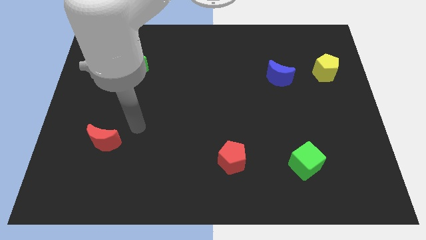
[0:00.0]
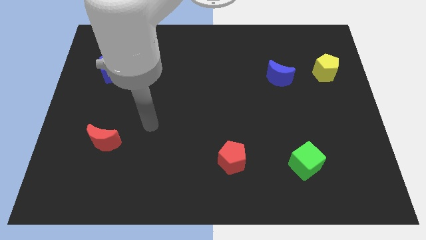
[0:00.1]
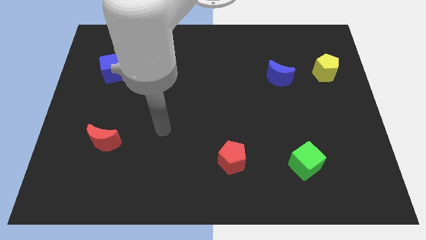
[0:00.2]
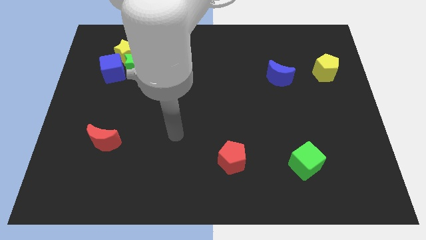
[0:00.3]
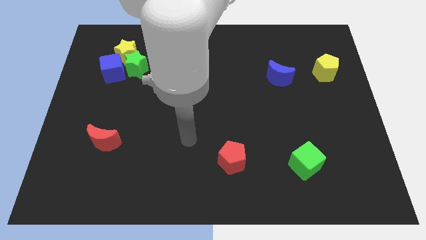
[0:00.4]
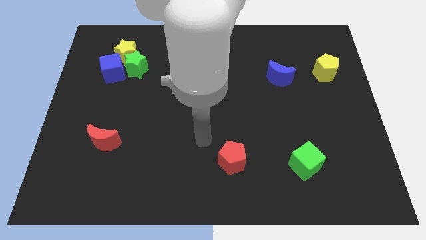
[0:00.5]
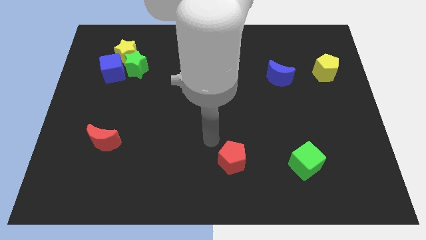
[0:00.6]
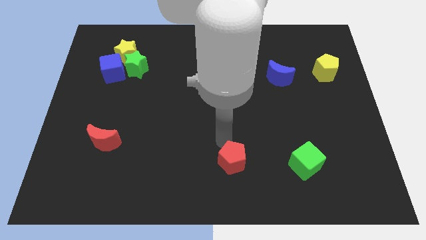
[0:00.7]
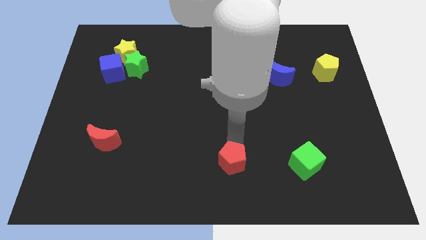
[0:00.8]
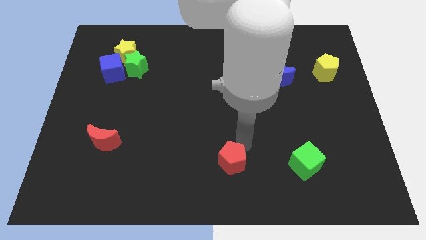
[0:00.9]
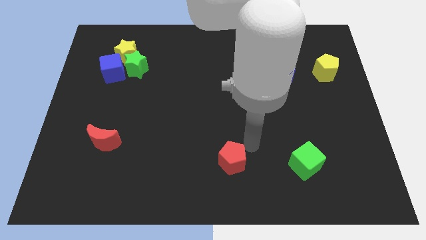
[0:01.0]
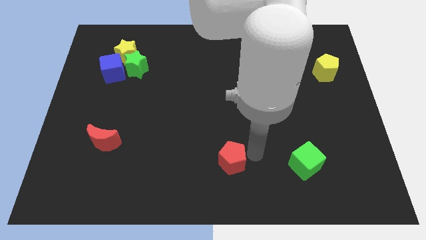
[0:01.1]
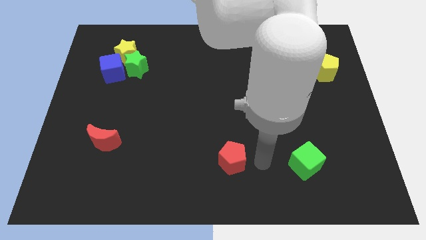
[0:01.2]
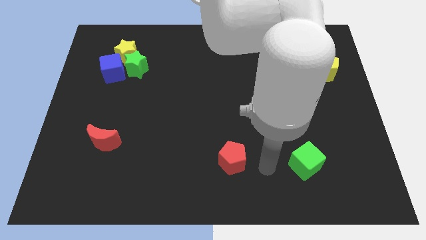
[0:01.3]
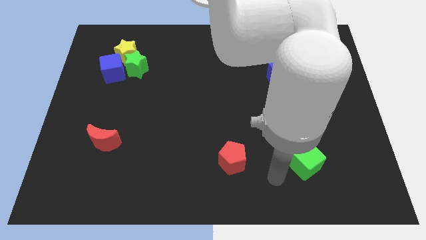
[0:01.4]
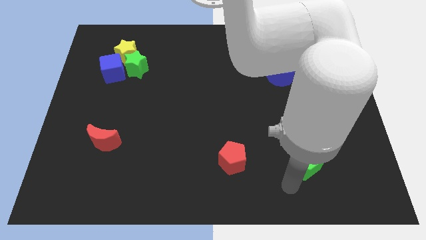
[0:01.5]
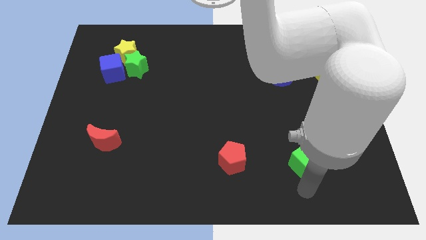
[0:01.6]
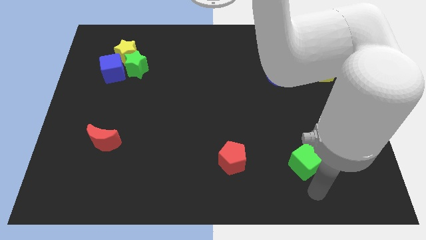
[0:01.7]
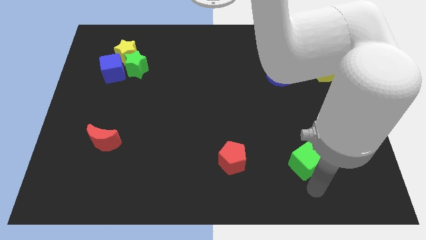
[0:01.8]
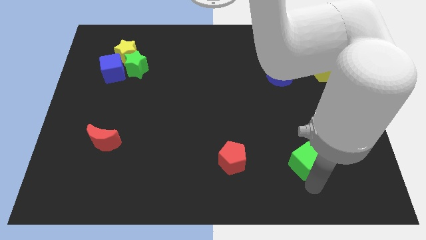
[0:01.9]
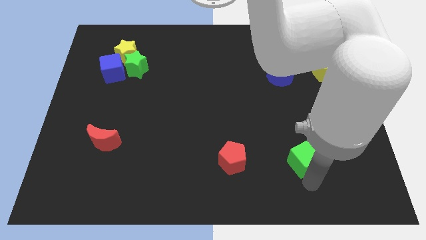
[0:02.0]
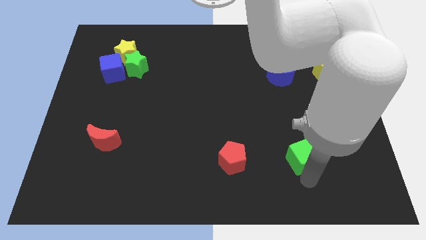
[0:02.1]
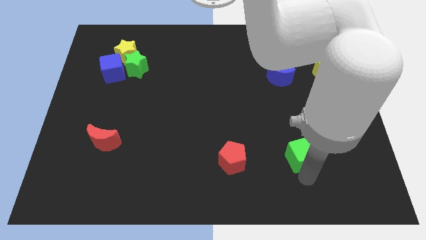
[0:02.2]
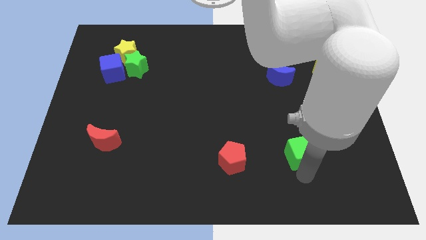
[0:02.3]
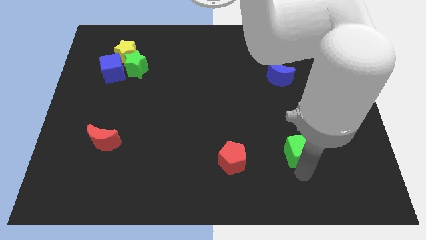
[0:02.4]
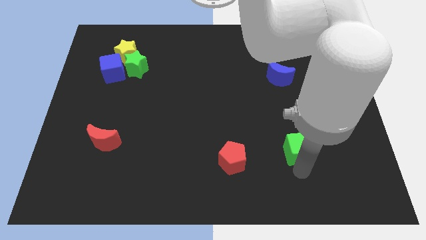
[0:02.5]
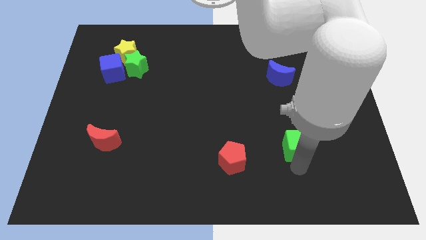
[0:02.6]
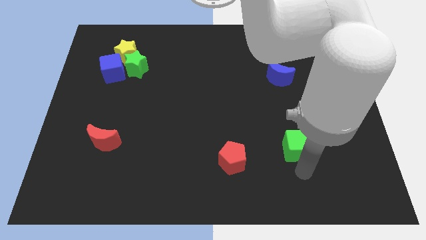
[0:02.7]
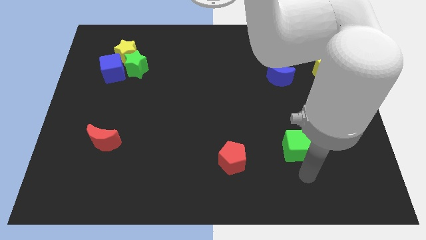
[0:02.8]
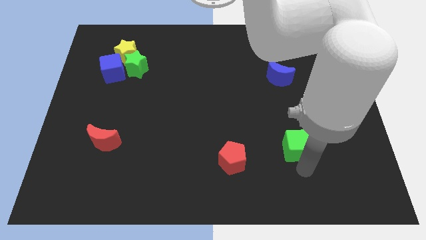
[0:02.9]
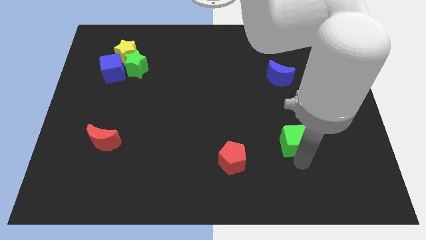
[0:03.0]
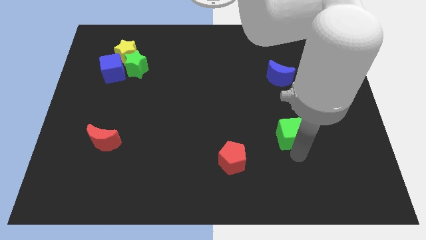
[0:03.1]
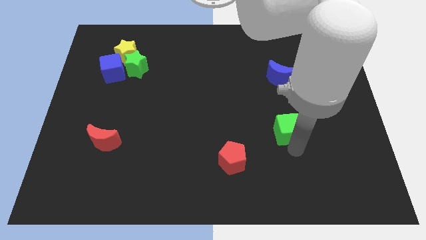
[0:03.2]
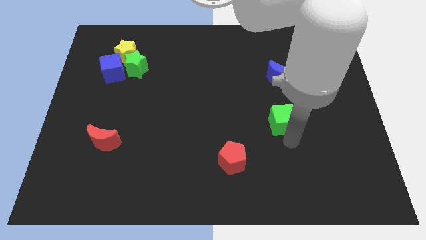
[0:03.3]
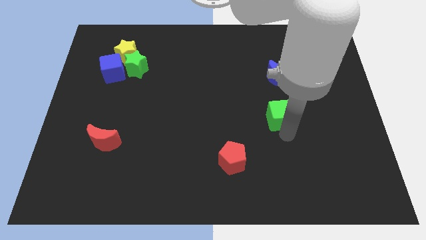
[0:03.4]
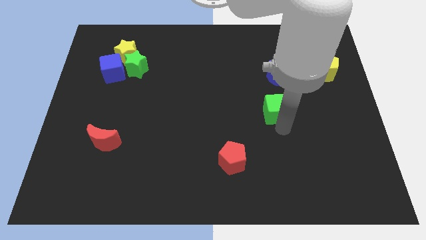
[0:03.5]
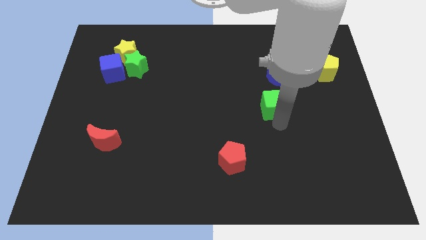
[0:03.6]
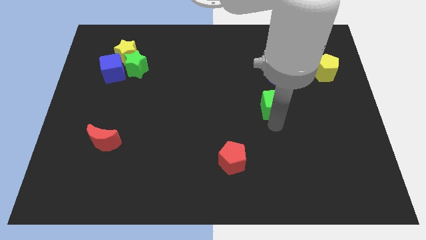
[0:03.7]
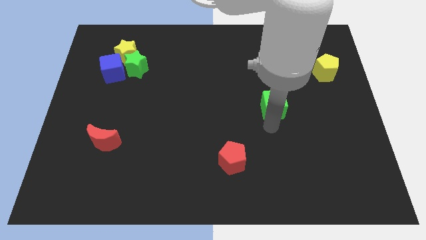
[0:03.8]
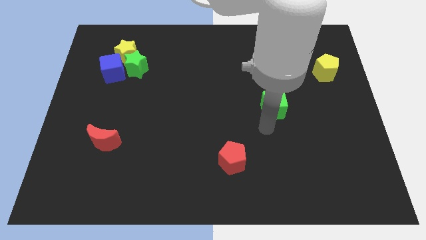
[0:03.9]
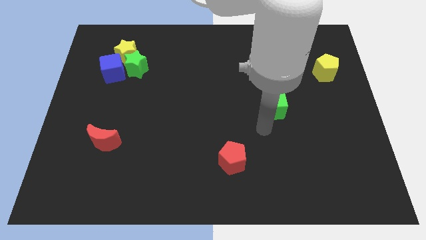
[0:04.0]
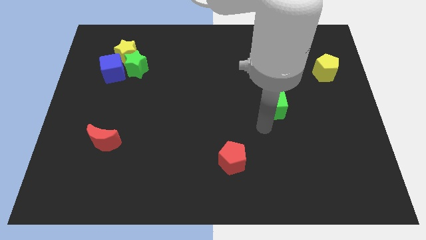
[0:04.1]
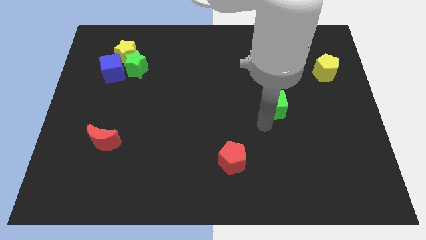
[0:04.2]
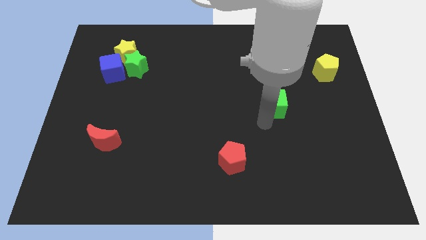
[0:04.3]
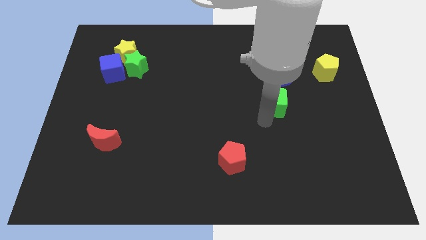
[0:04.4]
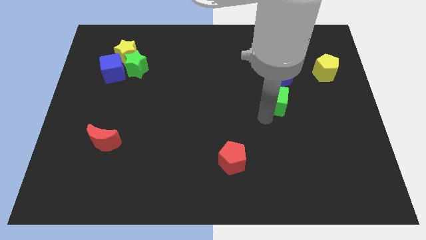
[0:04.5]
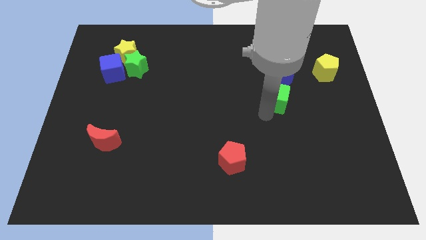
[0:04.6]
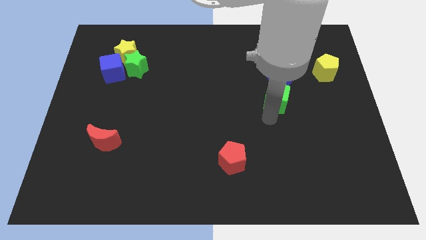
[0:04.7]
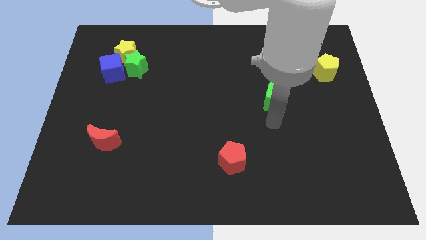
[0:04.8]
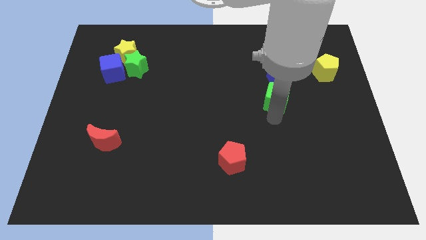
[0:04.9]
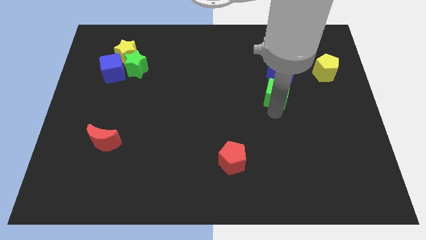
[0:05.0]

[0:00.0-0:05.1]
slide the green cube towards the blue moon

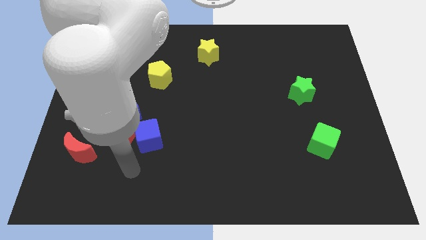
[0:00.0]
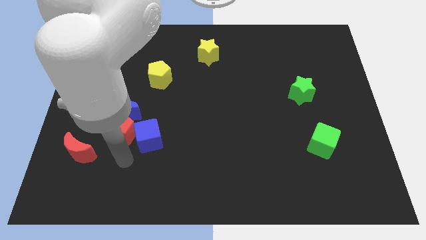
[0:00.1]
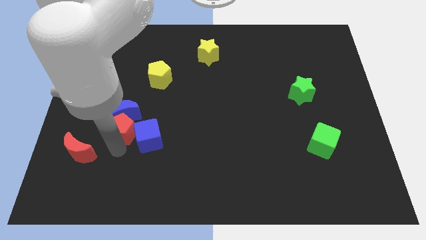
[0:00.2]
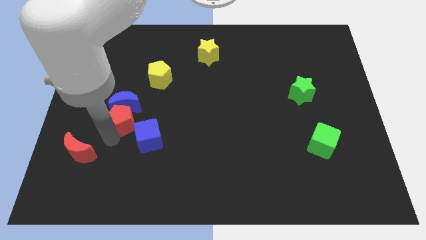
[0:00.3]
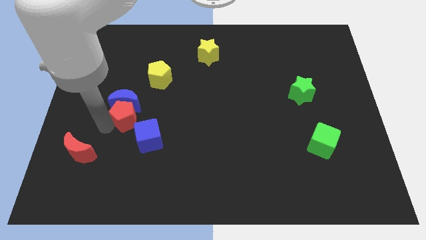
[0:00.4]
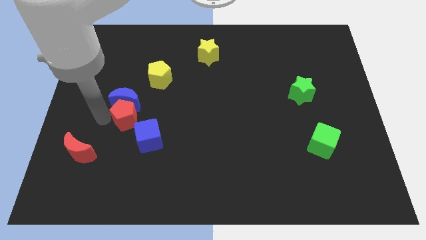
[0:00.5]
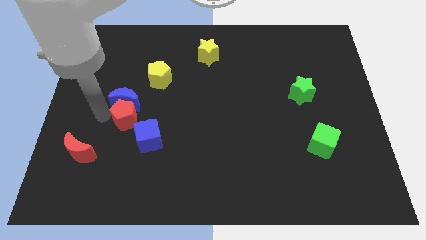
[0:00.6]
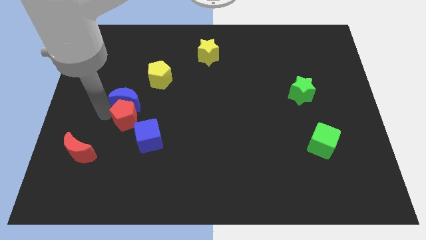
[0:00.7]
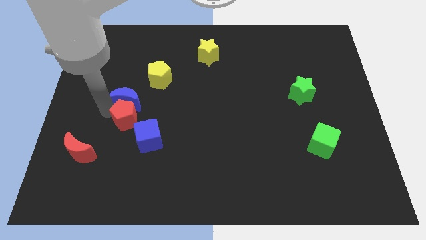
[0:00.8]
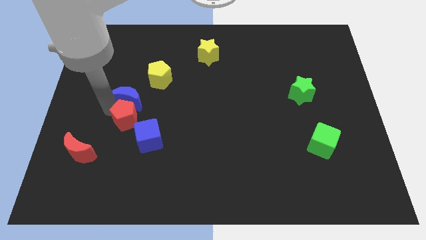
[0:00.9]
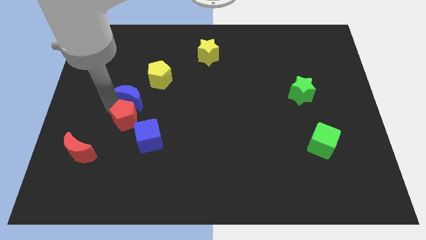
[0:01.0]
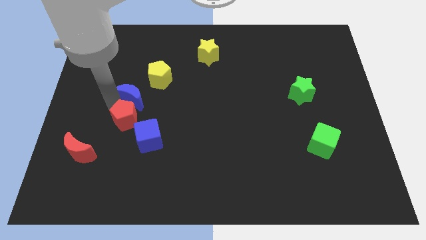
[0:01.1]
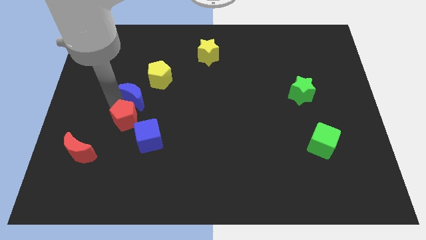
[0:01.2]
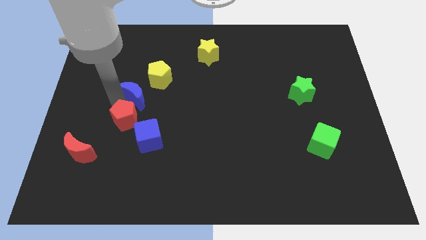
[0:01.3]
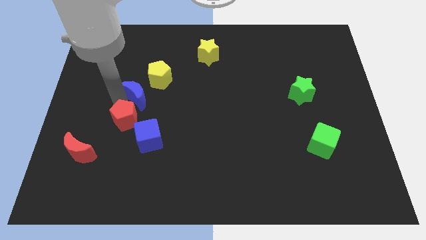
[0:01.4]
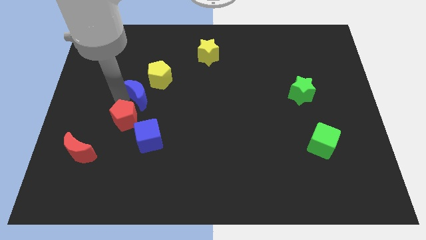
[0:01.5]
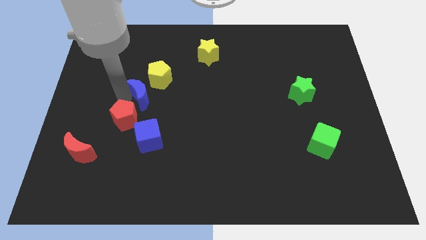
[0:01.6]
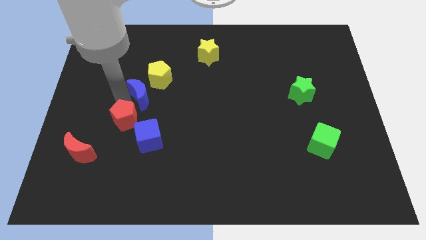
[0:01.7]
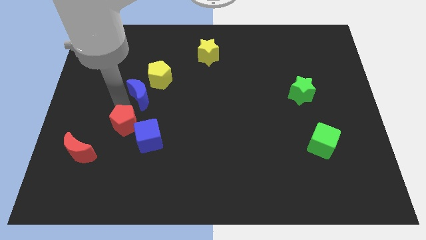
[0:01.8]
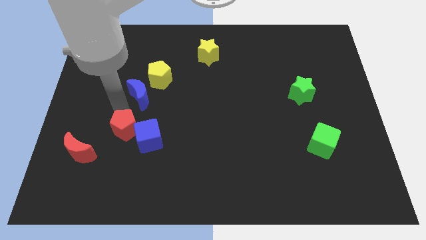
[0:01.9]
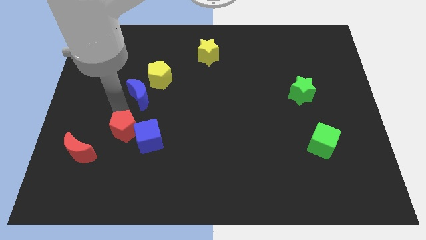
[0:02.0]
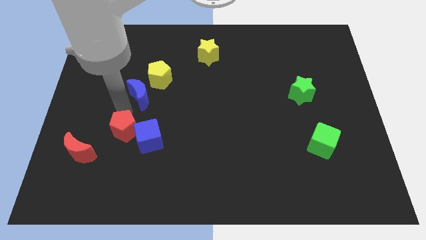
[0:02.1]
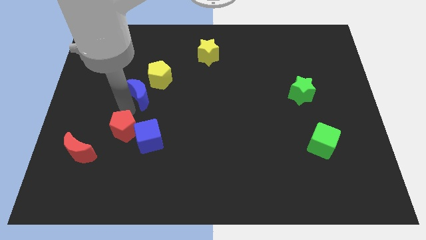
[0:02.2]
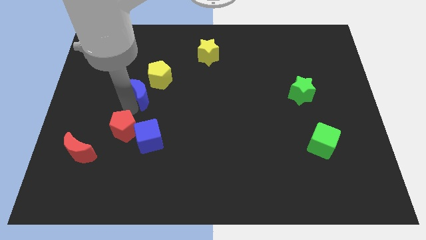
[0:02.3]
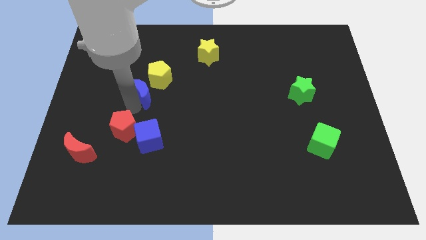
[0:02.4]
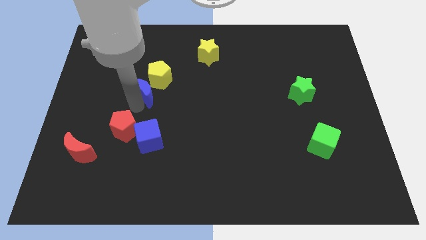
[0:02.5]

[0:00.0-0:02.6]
push the blue moon to the yellow pentagon

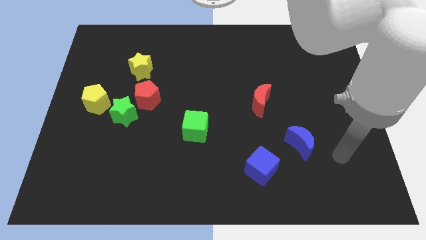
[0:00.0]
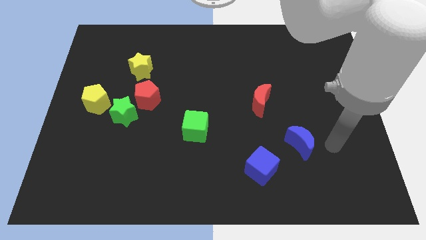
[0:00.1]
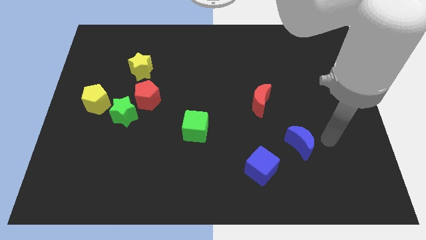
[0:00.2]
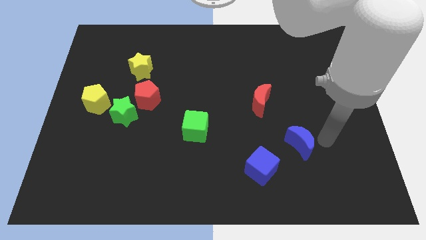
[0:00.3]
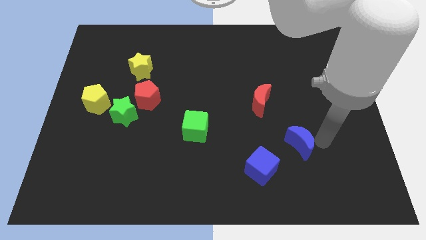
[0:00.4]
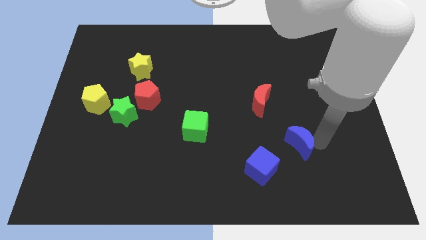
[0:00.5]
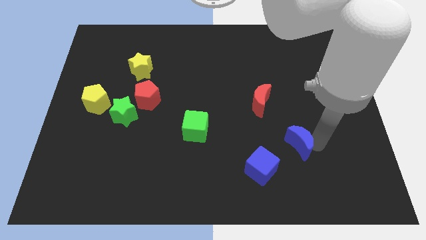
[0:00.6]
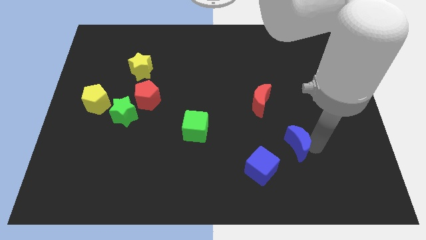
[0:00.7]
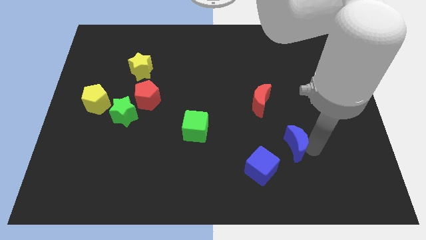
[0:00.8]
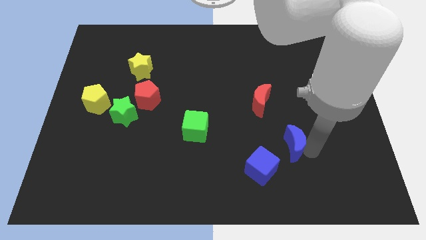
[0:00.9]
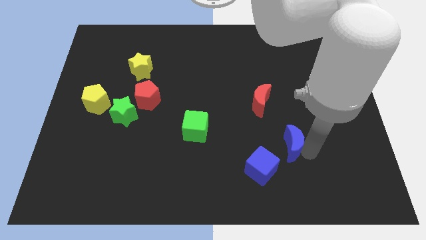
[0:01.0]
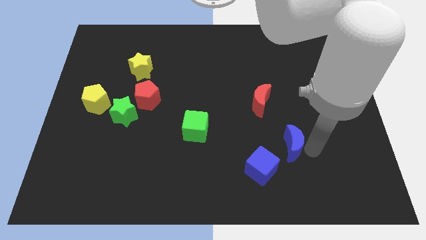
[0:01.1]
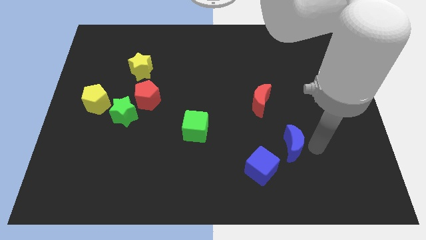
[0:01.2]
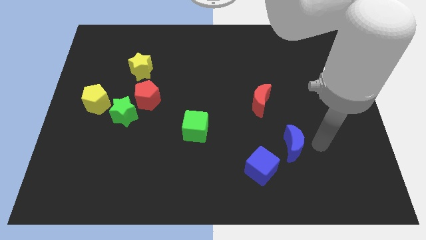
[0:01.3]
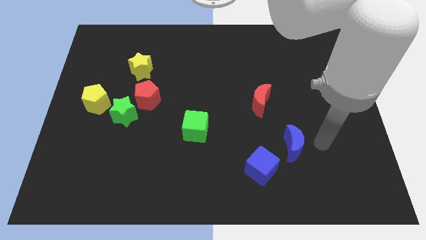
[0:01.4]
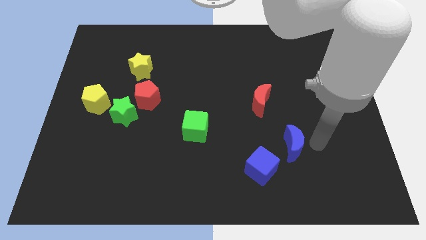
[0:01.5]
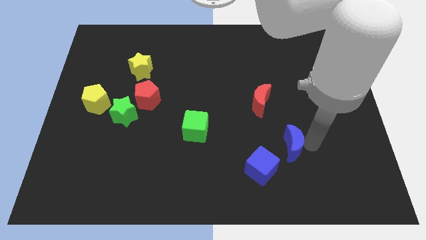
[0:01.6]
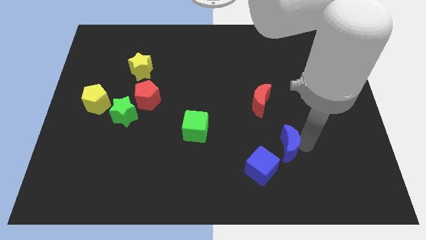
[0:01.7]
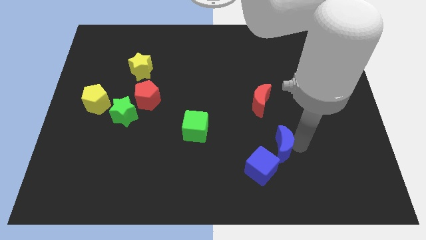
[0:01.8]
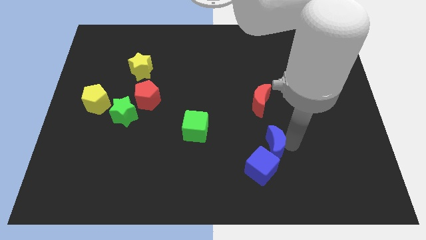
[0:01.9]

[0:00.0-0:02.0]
slide the blue moon close to the blue cube
